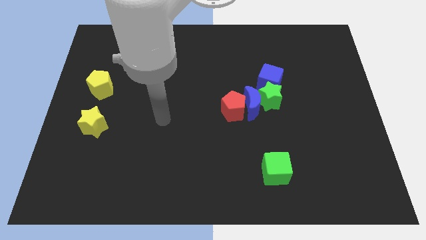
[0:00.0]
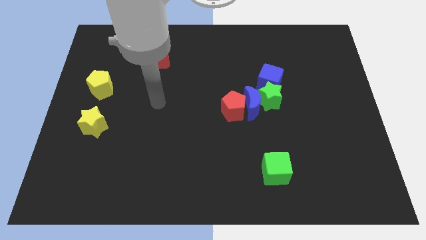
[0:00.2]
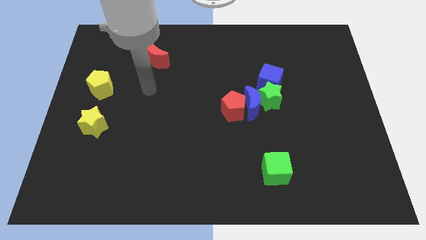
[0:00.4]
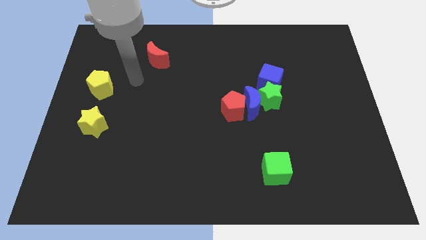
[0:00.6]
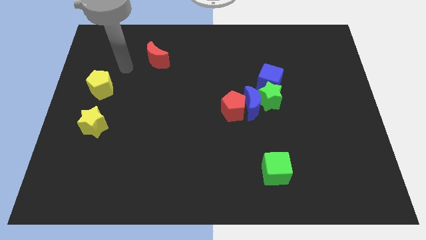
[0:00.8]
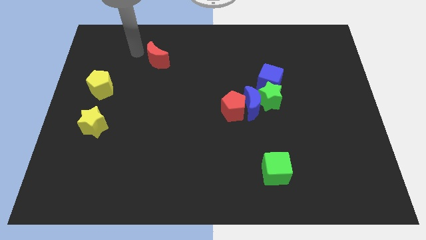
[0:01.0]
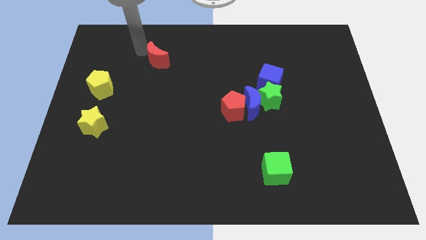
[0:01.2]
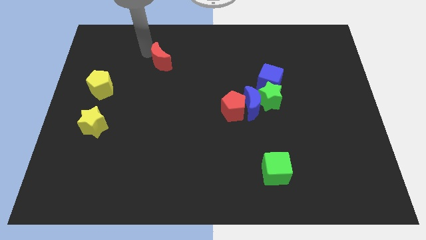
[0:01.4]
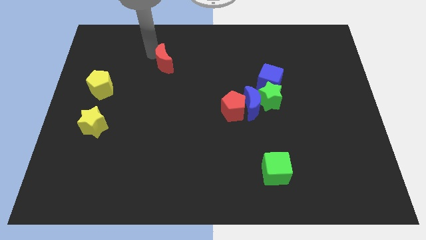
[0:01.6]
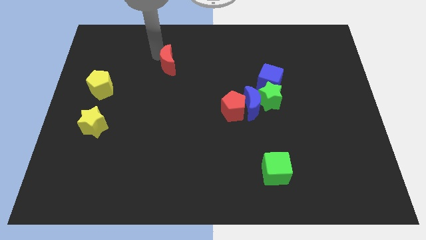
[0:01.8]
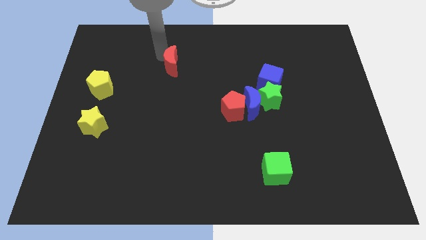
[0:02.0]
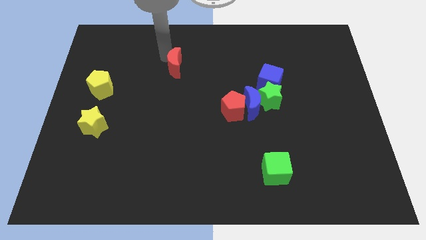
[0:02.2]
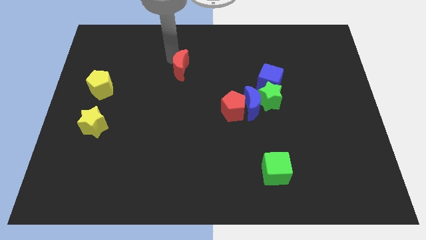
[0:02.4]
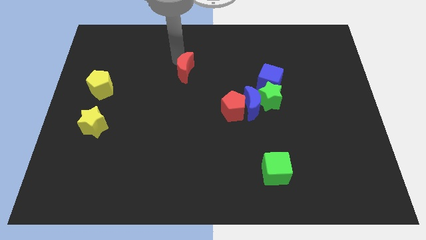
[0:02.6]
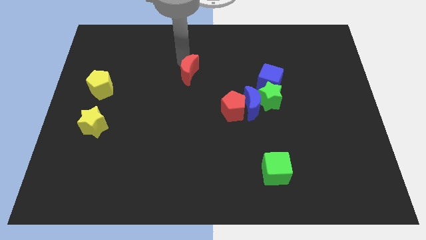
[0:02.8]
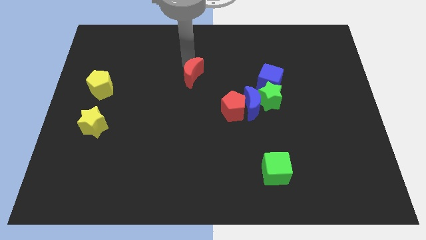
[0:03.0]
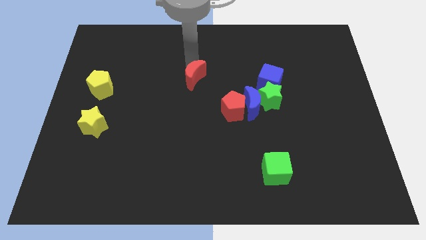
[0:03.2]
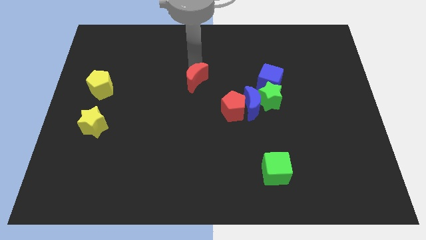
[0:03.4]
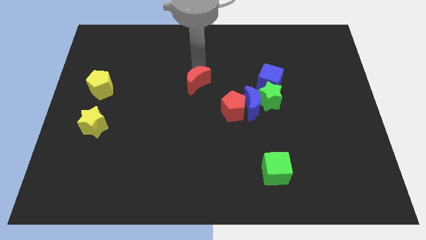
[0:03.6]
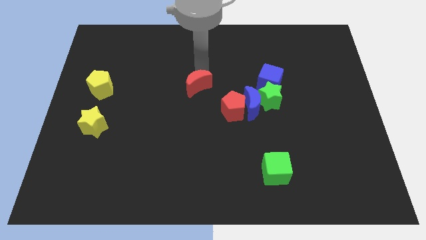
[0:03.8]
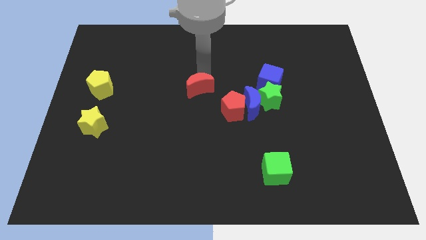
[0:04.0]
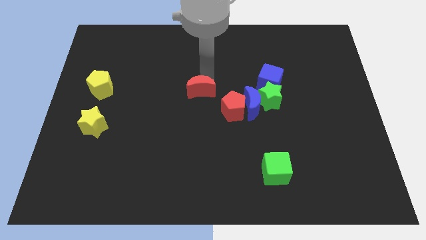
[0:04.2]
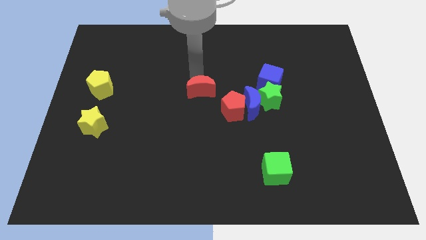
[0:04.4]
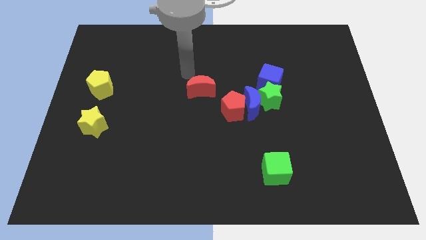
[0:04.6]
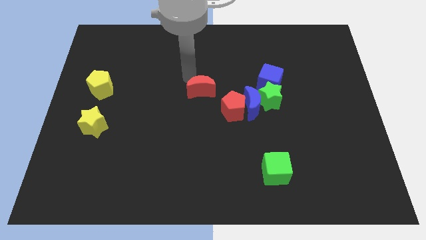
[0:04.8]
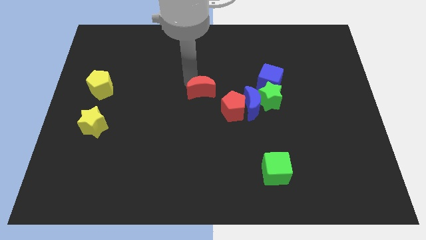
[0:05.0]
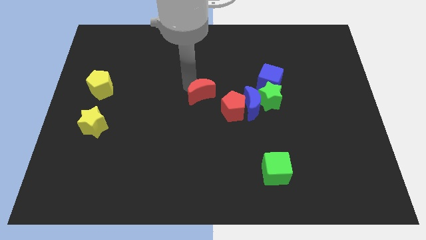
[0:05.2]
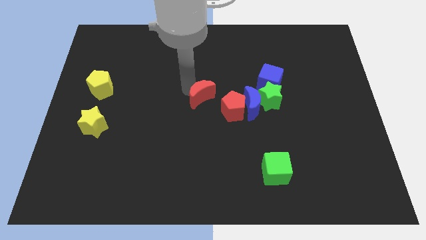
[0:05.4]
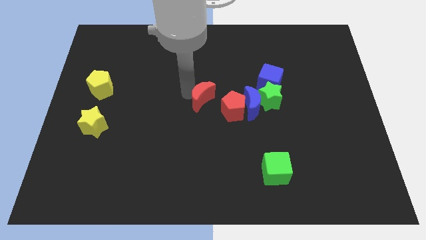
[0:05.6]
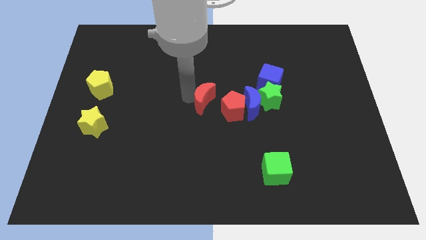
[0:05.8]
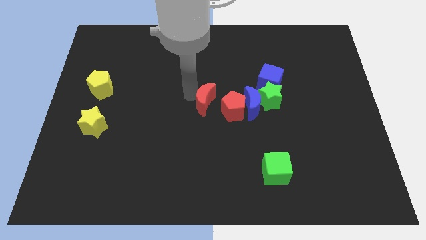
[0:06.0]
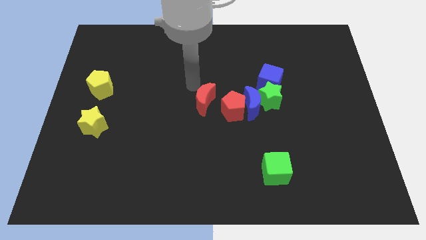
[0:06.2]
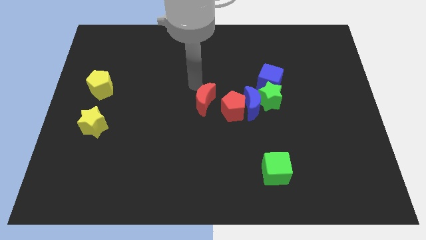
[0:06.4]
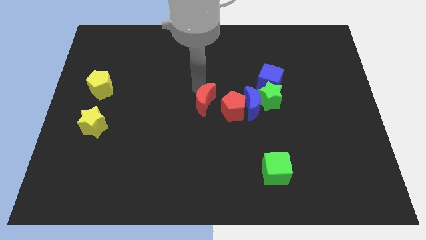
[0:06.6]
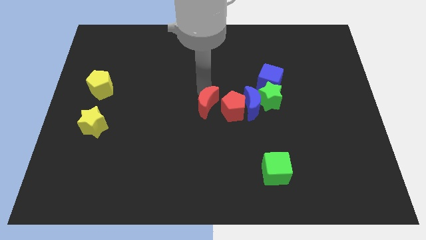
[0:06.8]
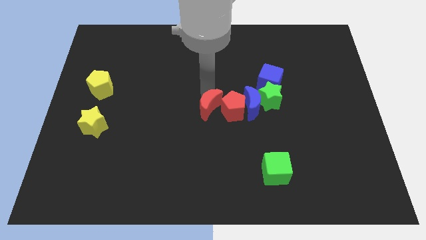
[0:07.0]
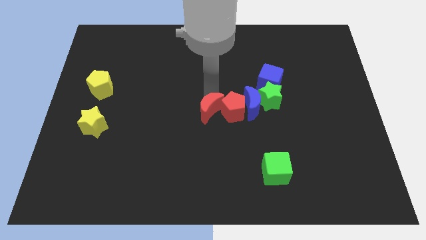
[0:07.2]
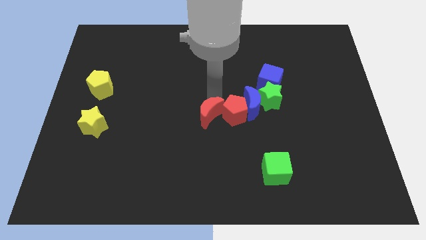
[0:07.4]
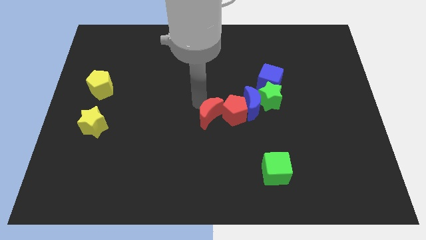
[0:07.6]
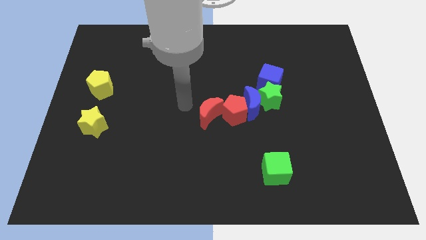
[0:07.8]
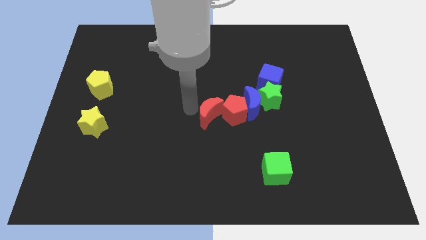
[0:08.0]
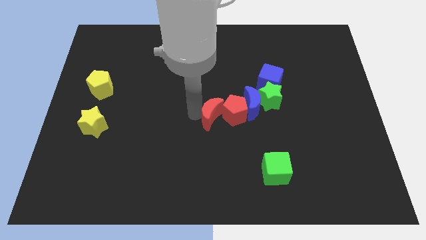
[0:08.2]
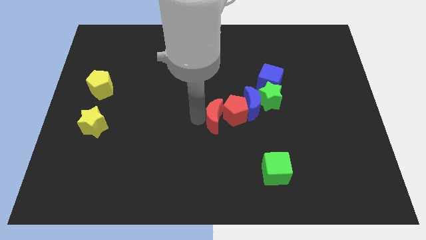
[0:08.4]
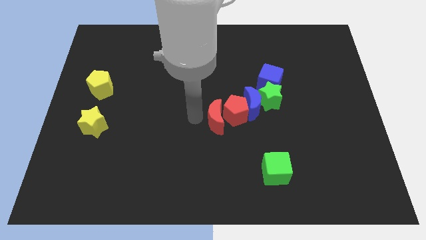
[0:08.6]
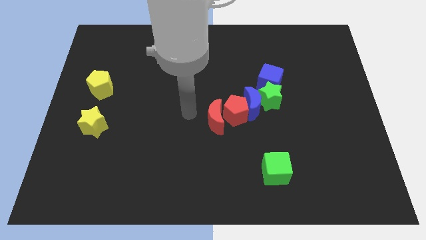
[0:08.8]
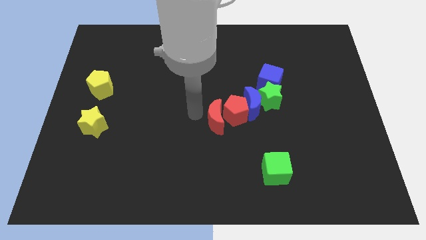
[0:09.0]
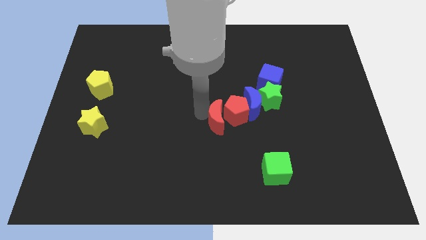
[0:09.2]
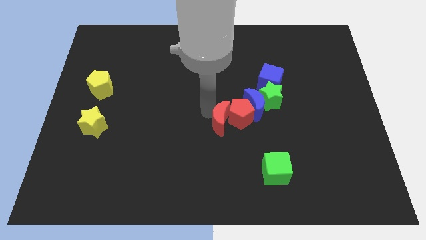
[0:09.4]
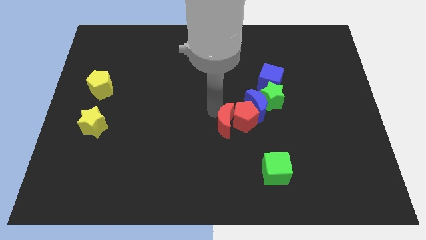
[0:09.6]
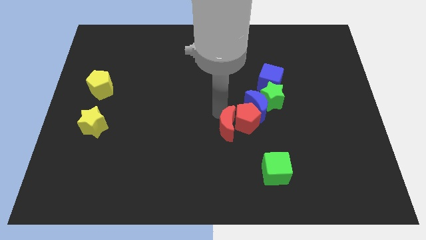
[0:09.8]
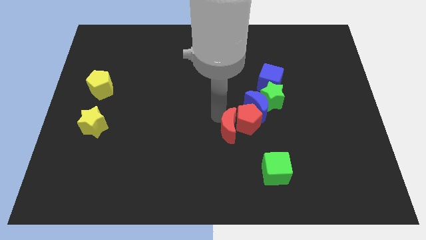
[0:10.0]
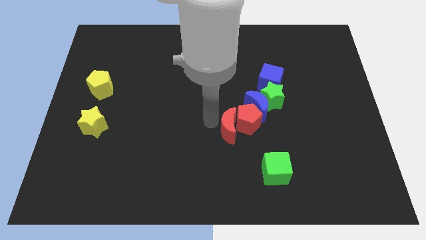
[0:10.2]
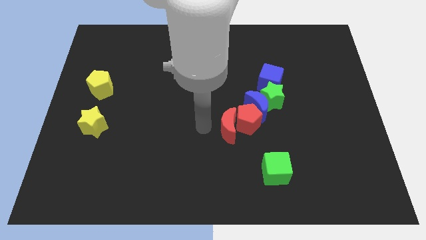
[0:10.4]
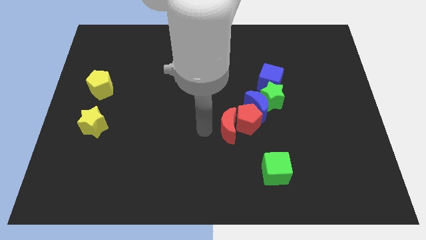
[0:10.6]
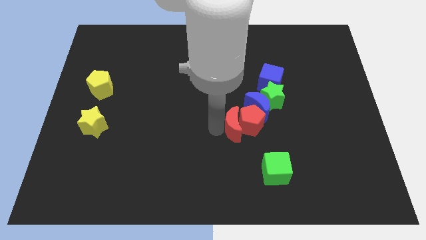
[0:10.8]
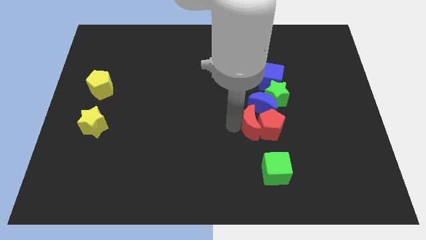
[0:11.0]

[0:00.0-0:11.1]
slide the red moon above the green cube

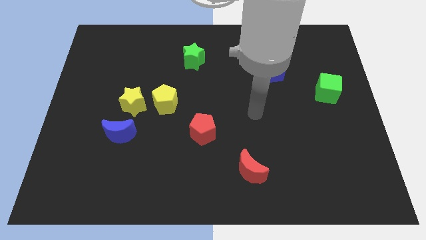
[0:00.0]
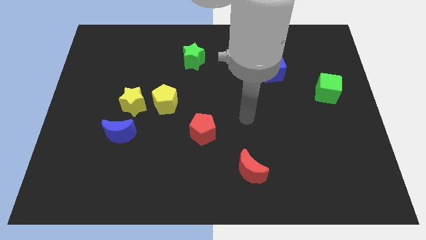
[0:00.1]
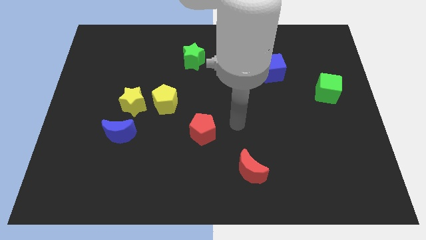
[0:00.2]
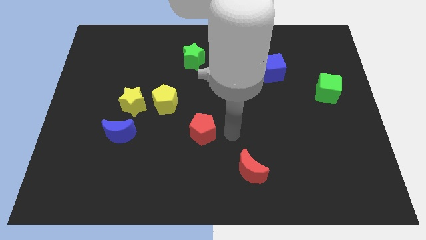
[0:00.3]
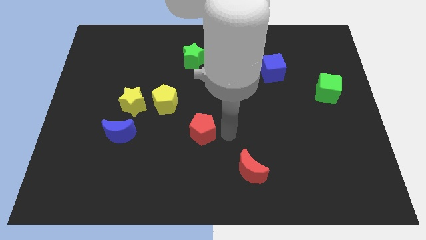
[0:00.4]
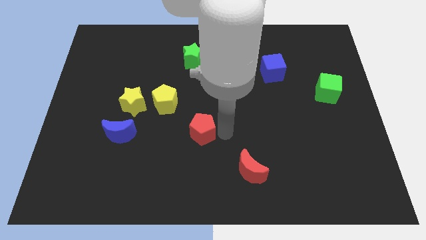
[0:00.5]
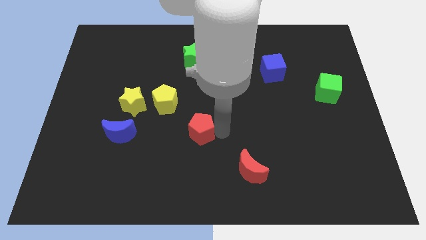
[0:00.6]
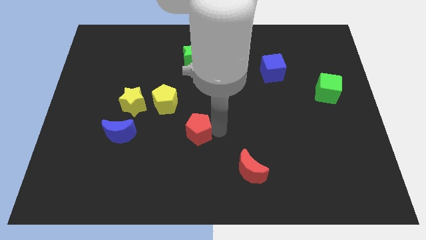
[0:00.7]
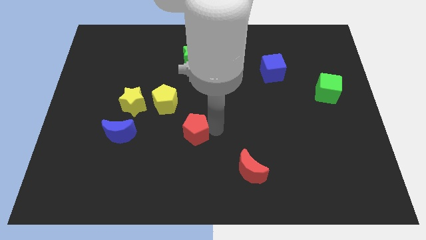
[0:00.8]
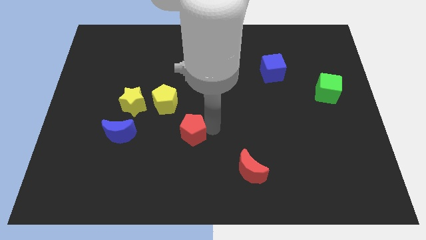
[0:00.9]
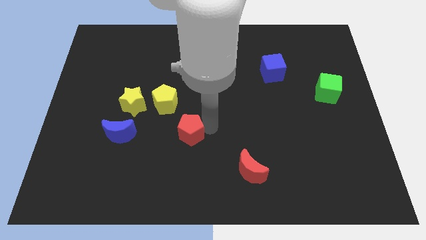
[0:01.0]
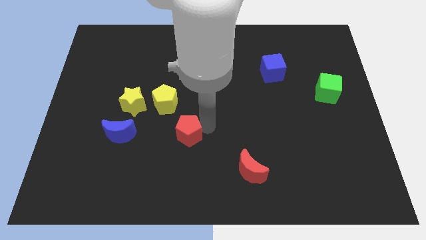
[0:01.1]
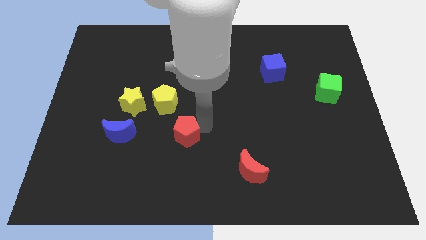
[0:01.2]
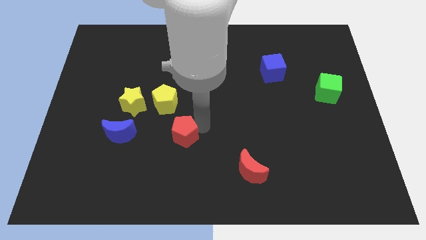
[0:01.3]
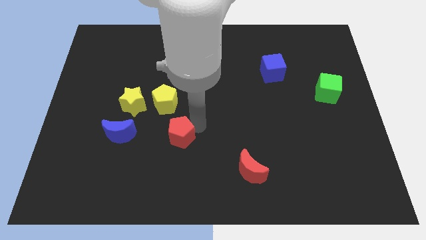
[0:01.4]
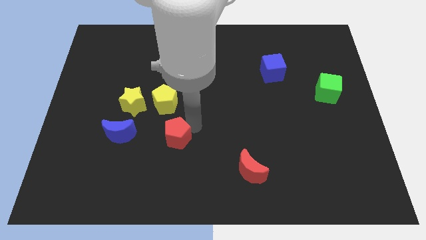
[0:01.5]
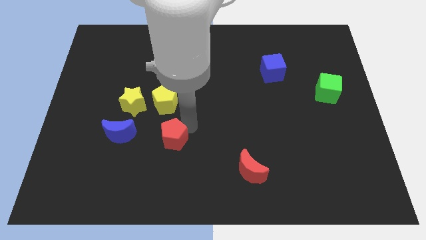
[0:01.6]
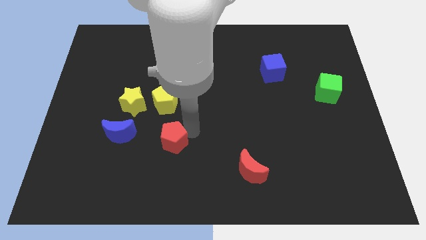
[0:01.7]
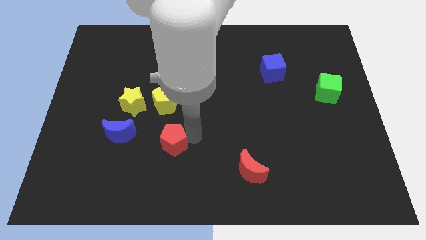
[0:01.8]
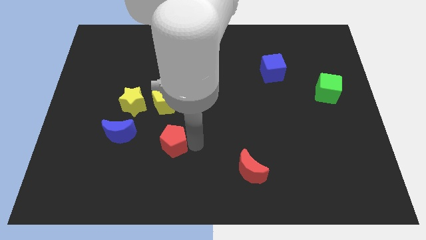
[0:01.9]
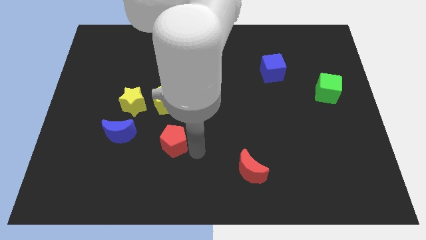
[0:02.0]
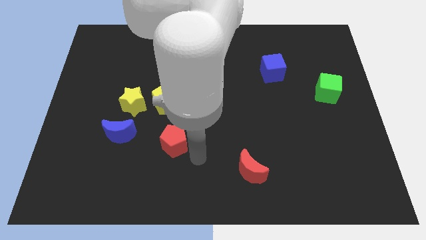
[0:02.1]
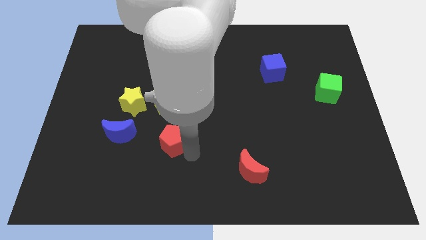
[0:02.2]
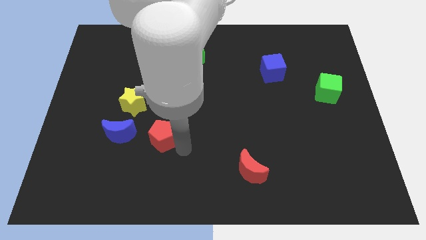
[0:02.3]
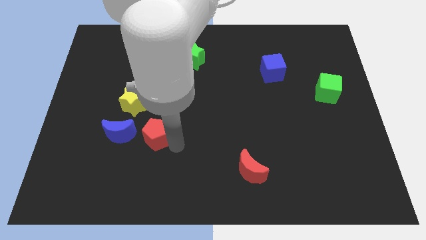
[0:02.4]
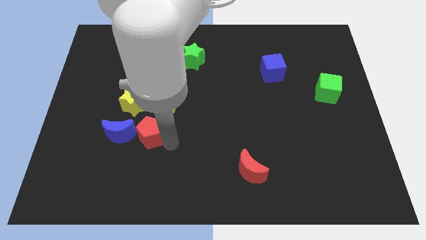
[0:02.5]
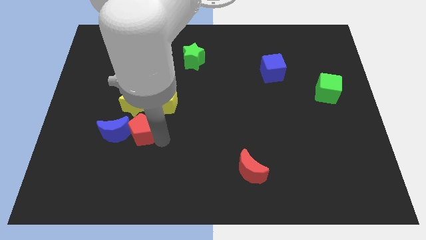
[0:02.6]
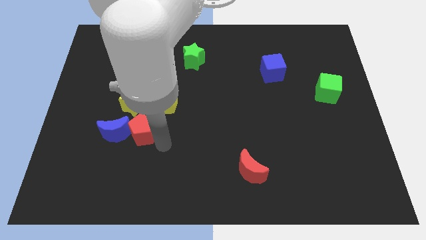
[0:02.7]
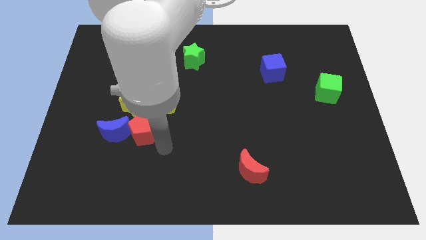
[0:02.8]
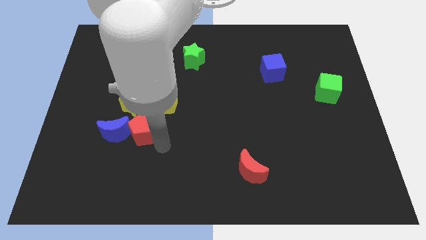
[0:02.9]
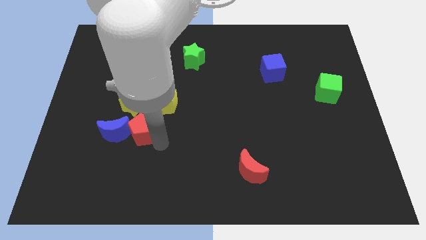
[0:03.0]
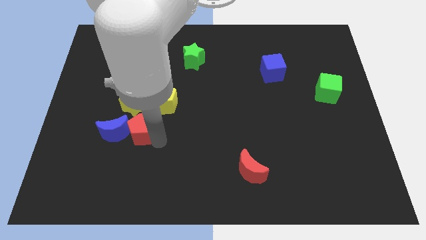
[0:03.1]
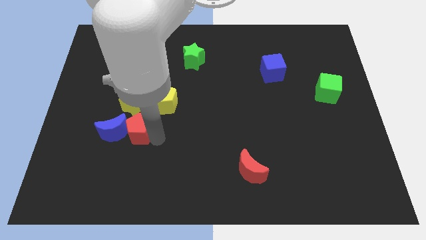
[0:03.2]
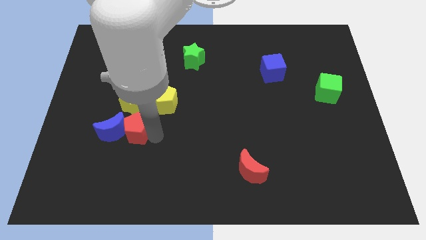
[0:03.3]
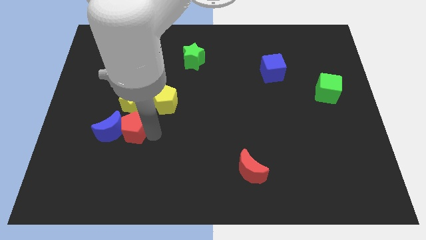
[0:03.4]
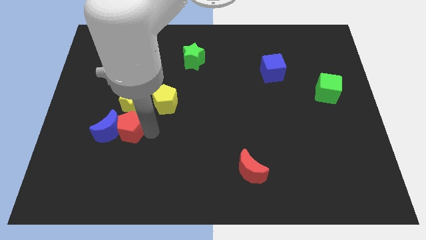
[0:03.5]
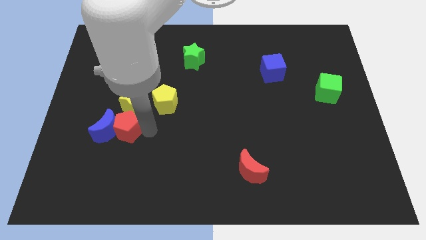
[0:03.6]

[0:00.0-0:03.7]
move the red pentagon to the bottom left side of the yellow star
